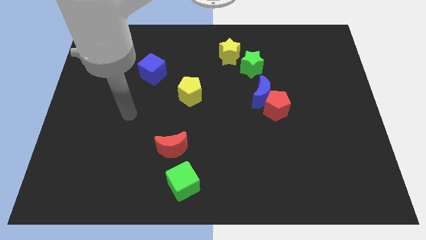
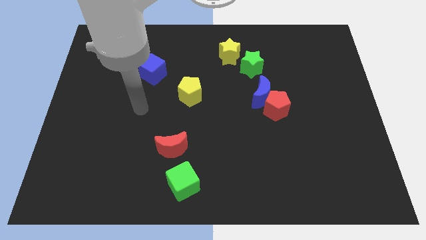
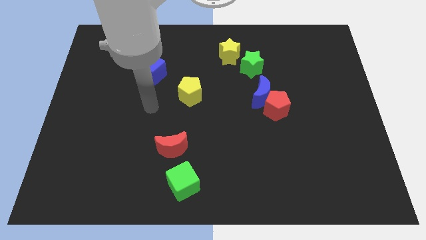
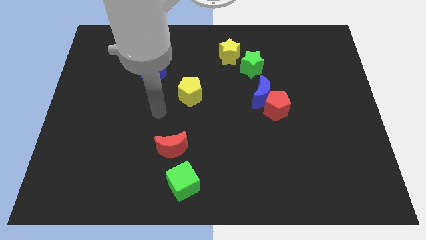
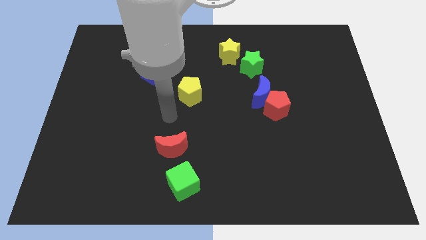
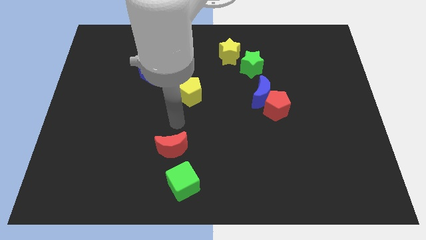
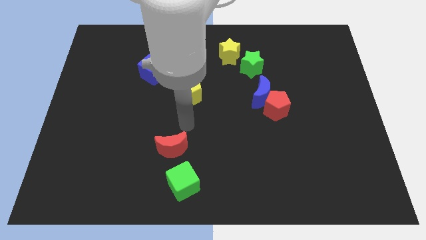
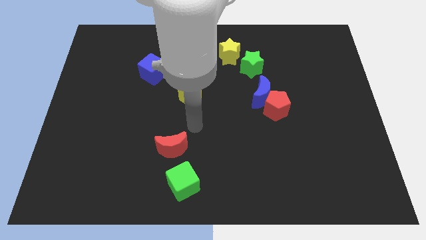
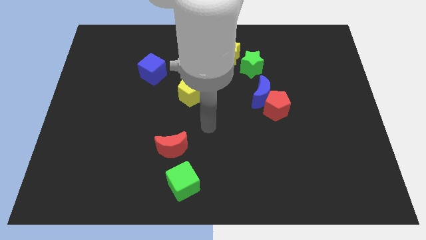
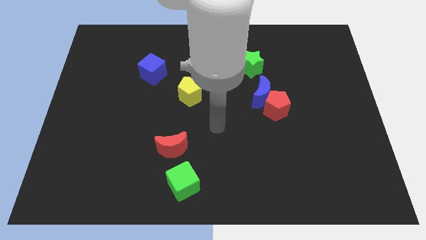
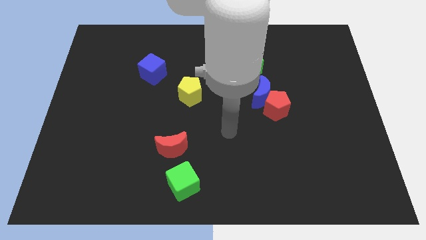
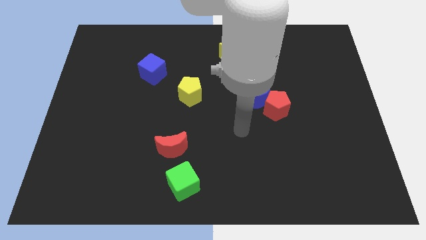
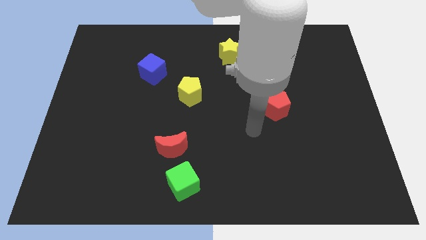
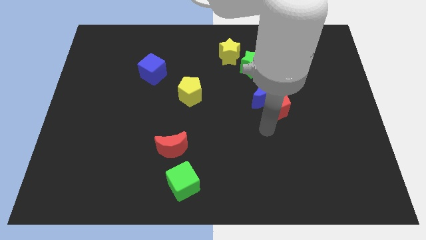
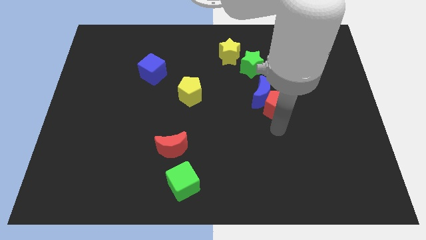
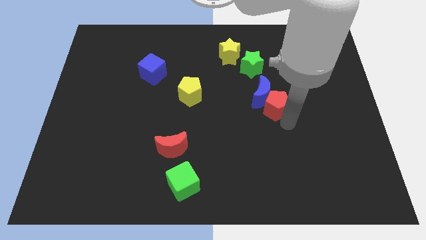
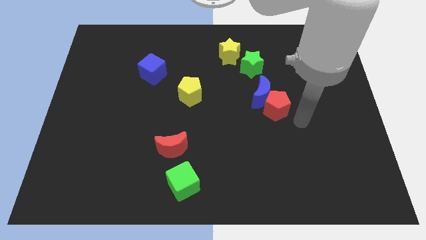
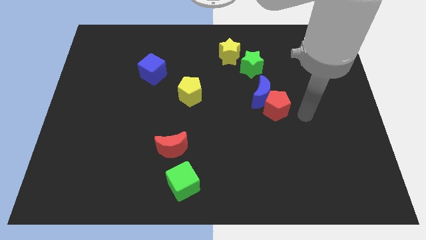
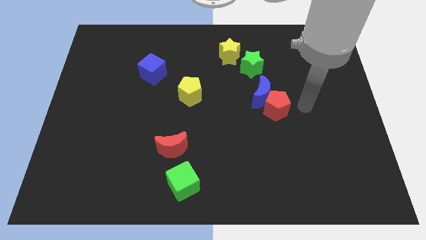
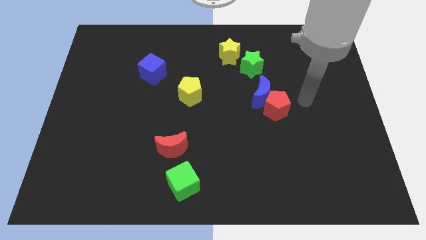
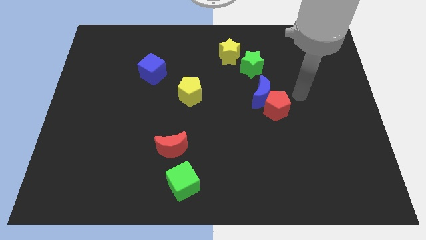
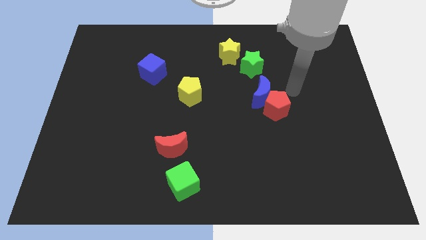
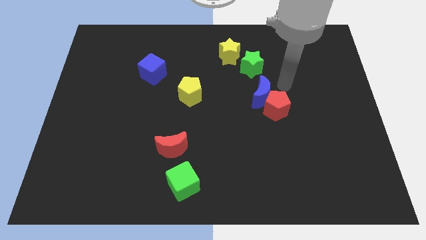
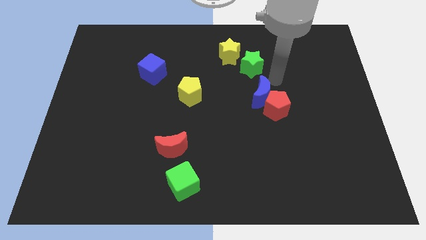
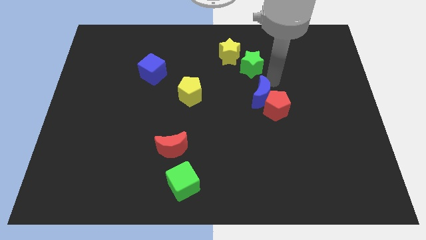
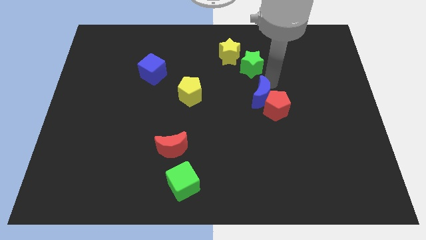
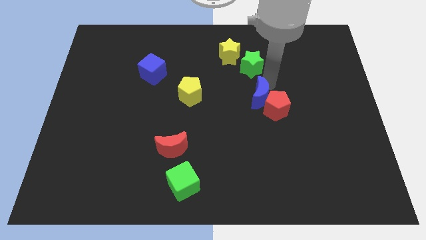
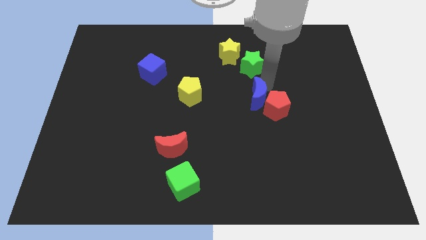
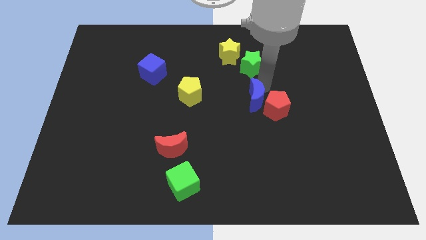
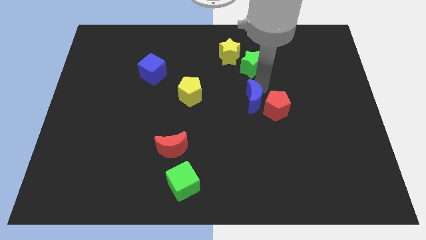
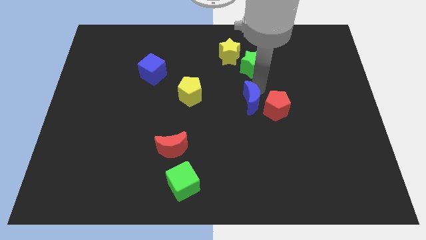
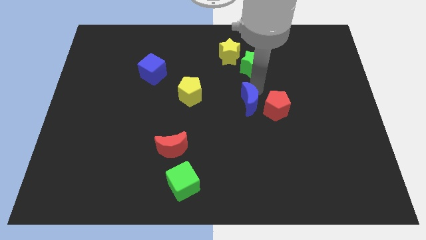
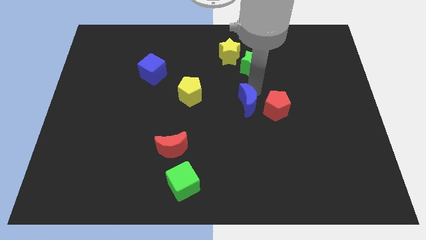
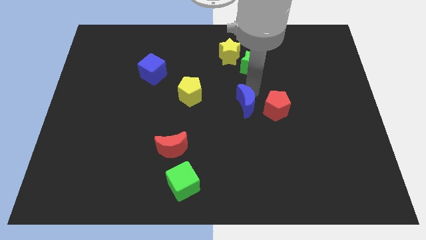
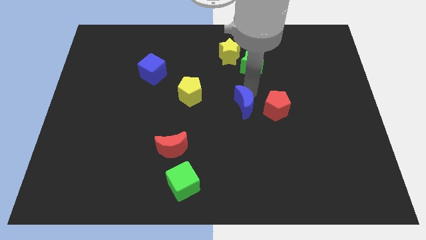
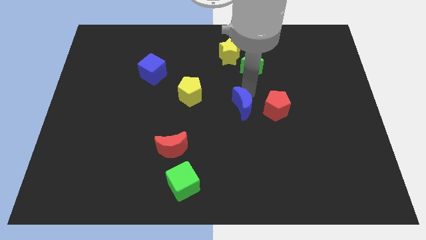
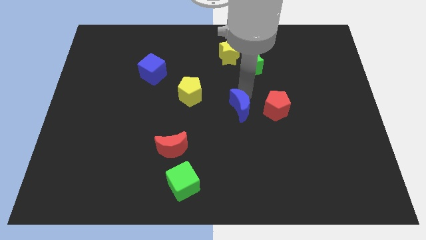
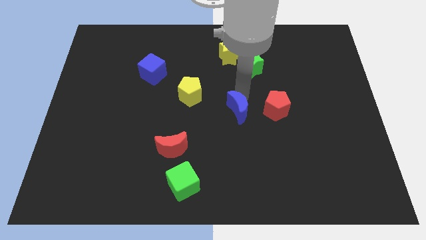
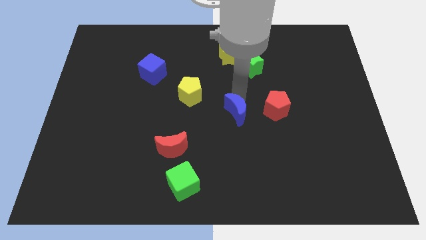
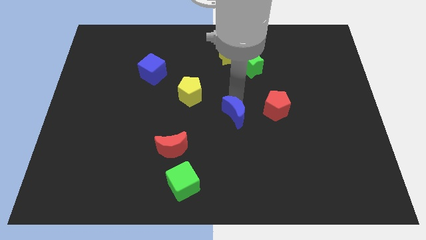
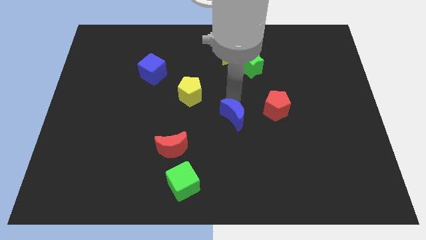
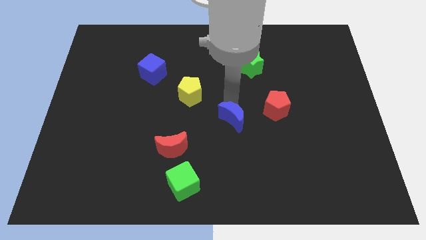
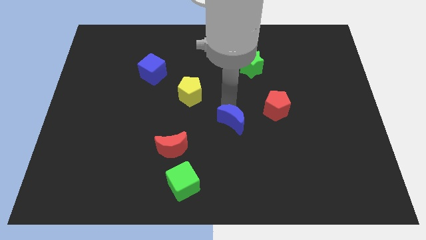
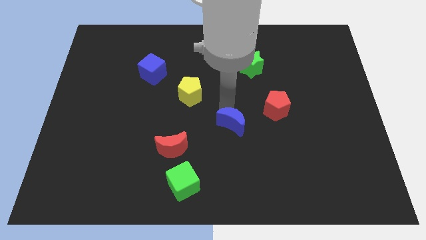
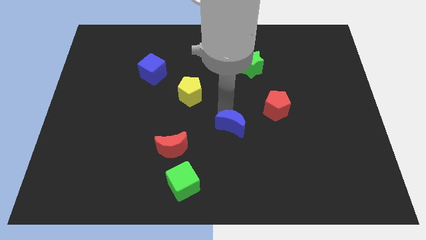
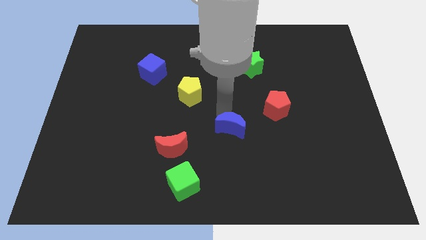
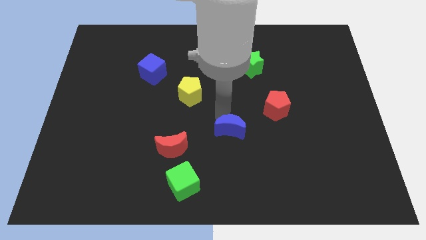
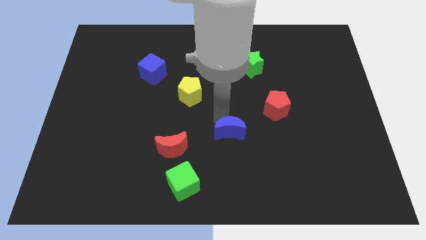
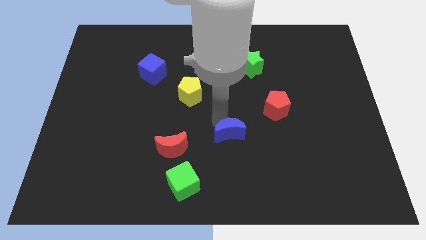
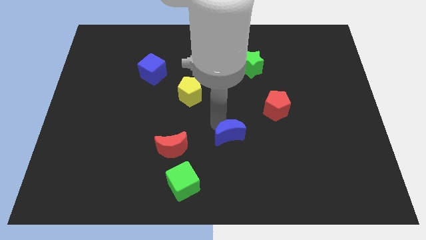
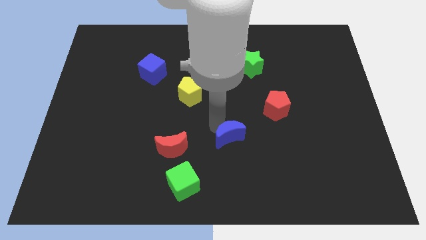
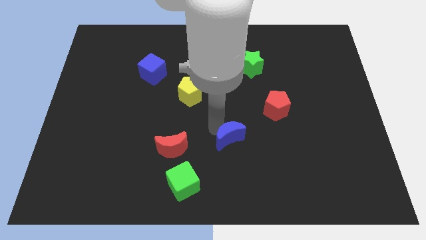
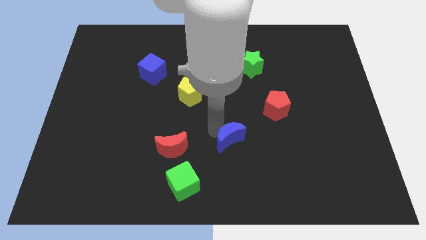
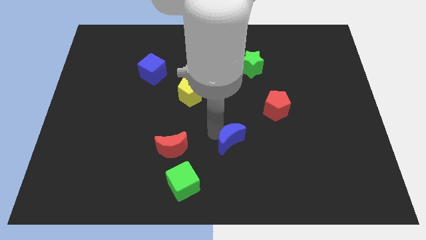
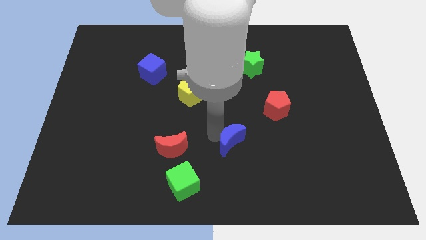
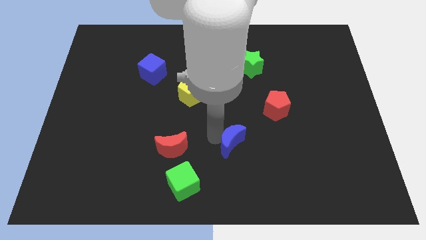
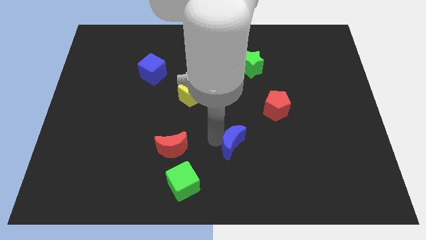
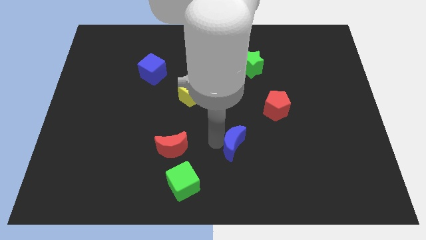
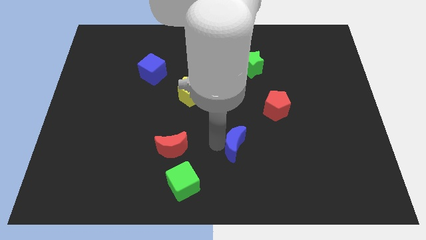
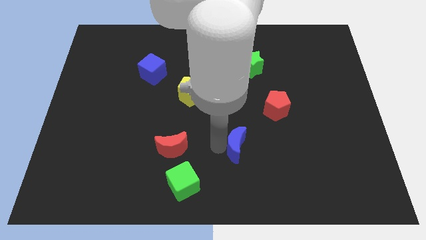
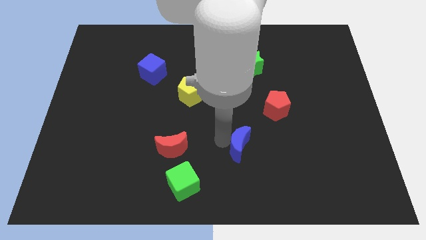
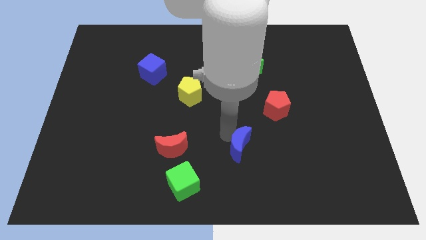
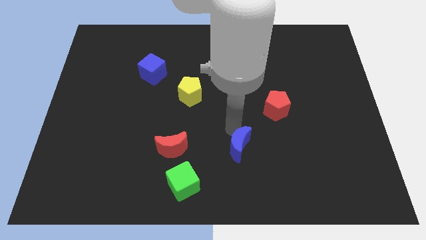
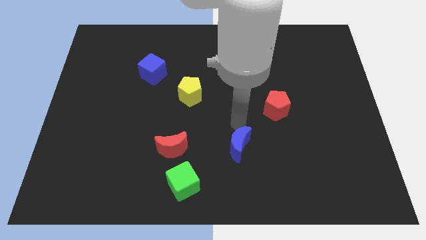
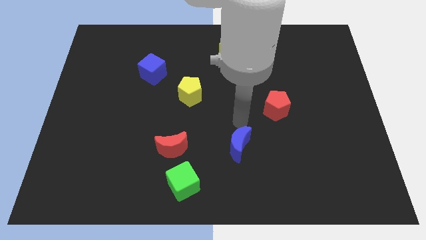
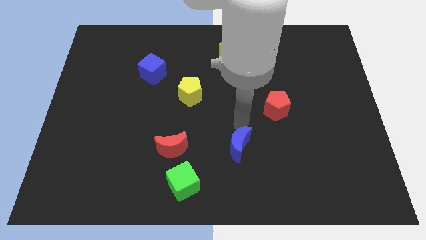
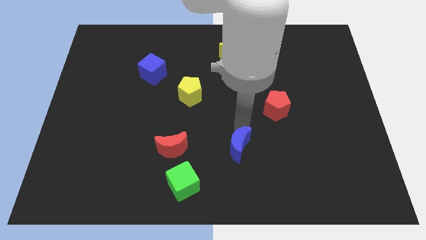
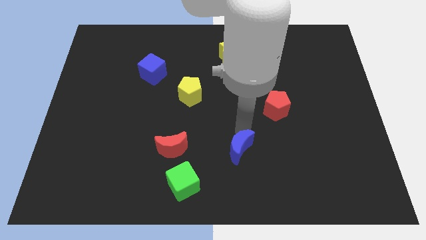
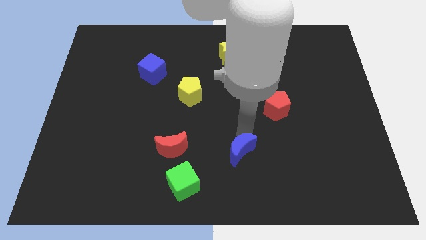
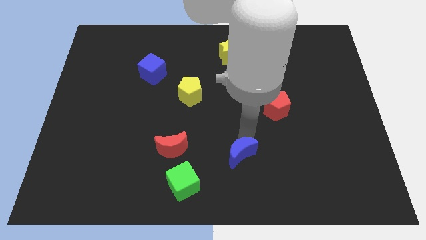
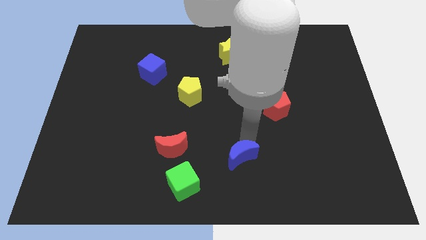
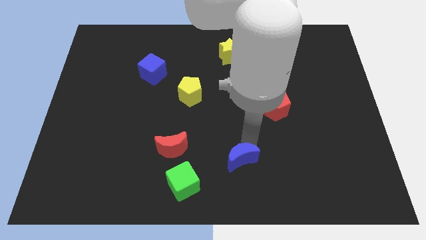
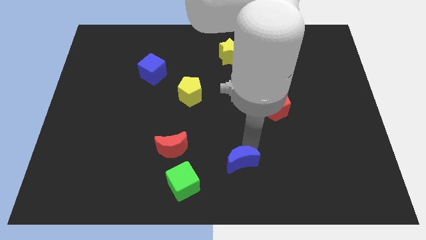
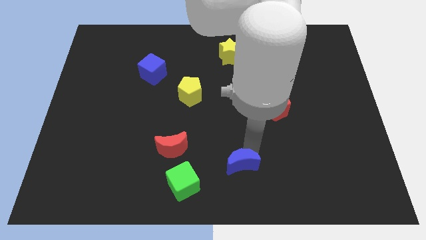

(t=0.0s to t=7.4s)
put the blue moon to the right side of the green cube

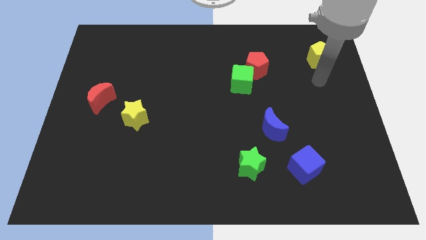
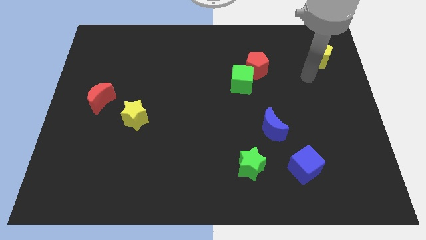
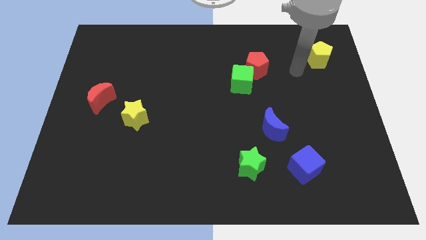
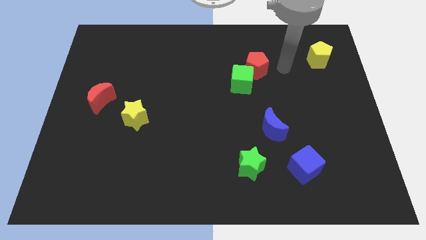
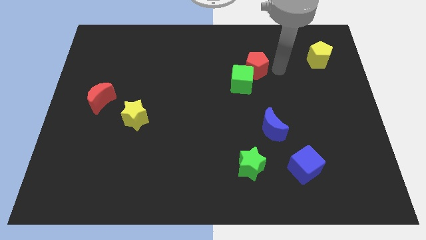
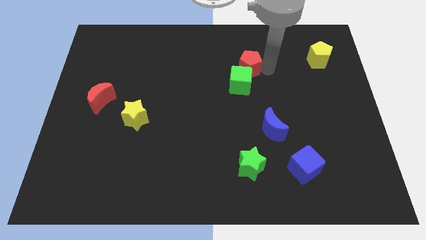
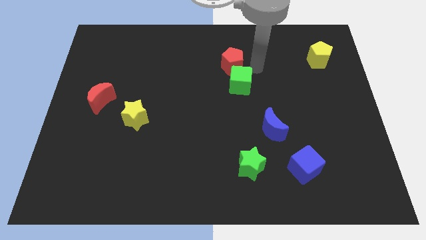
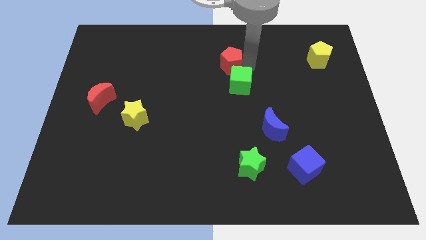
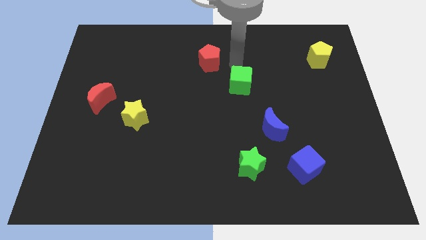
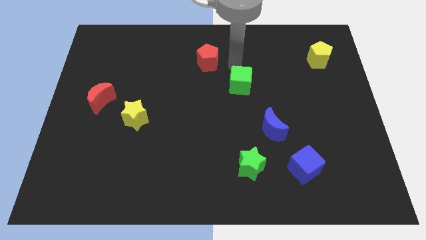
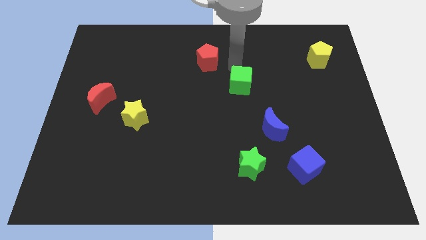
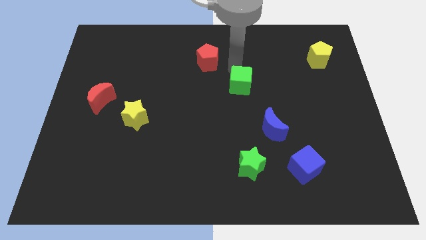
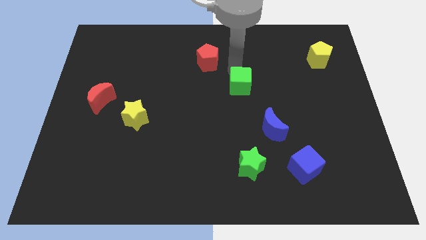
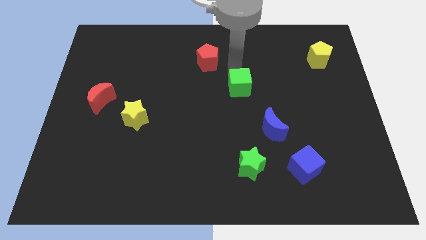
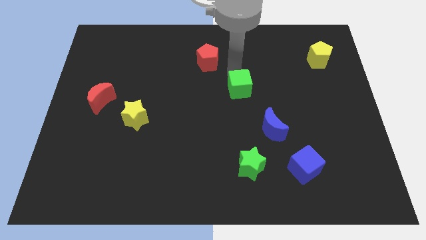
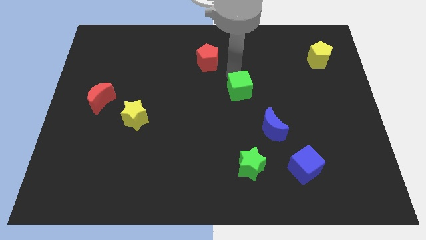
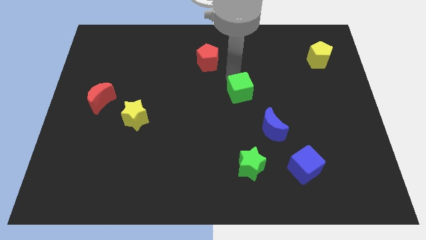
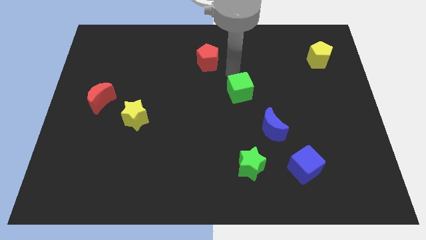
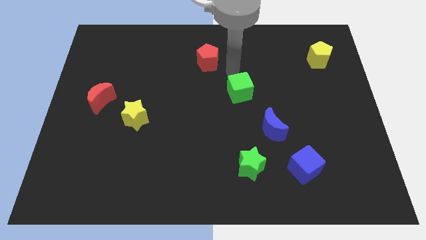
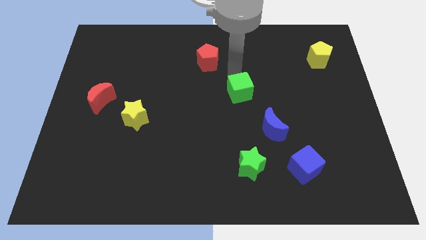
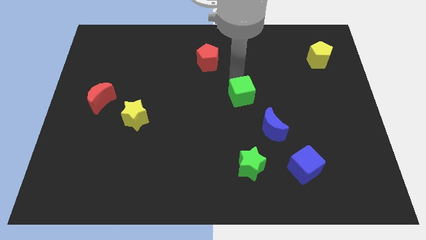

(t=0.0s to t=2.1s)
push the green cube to the top left of the blue moon
